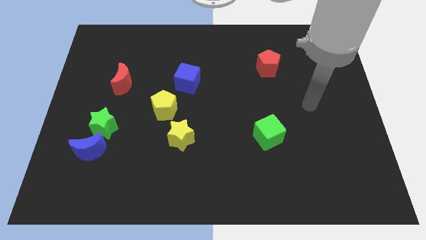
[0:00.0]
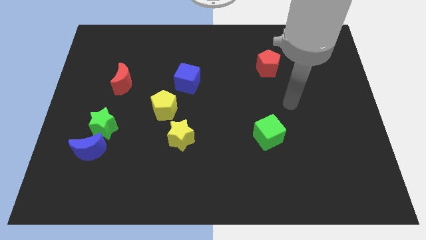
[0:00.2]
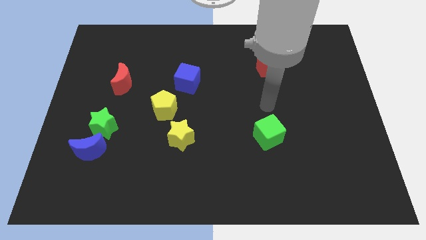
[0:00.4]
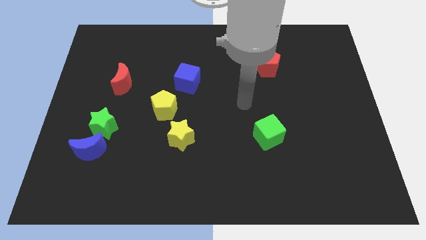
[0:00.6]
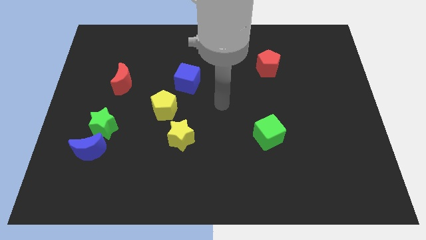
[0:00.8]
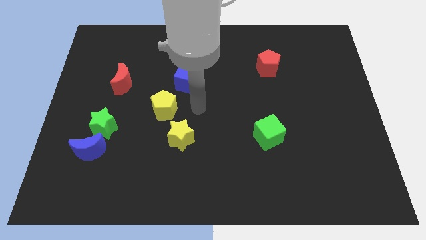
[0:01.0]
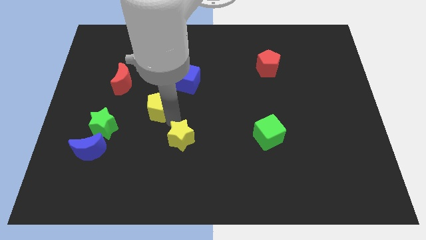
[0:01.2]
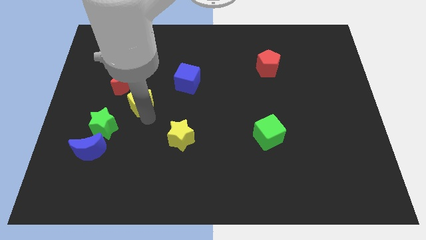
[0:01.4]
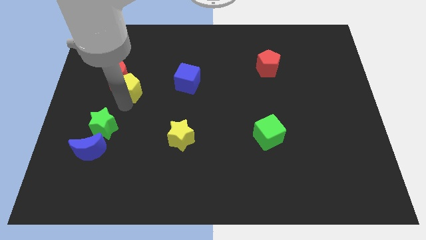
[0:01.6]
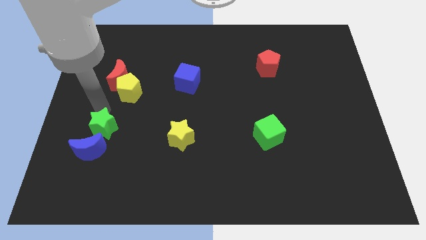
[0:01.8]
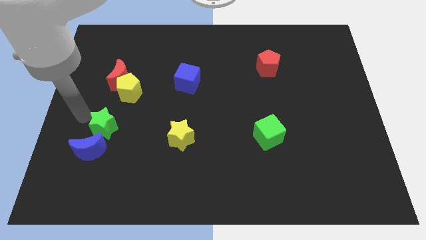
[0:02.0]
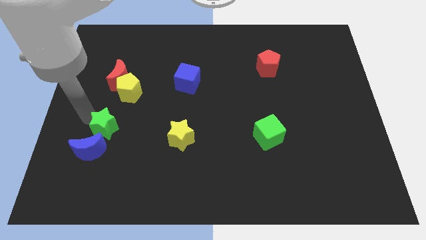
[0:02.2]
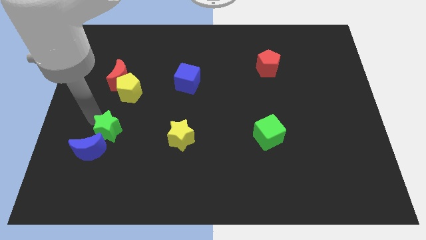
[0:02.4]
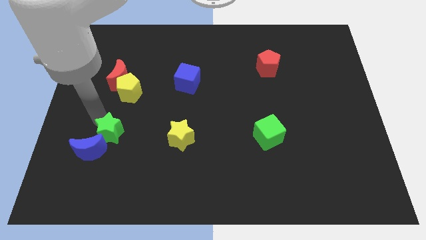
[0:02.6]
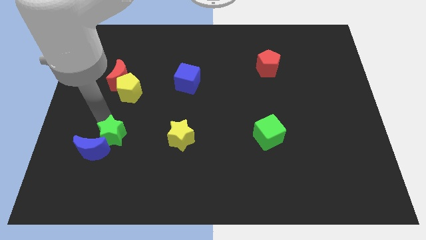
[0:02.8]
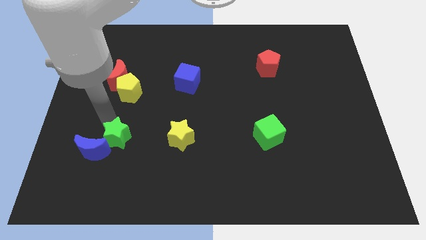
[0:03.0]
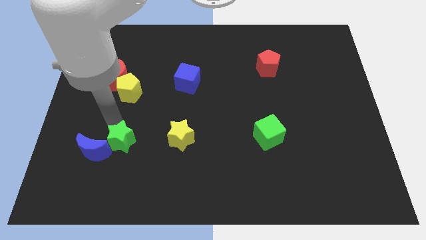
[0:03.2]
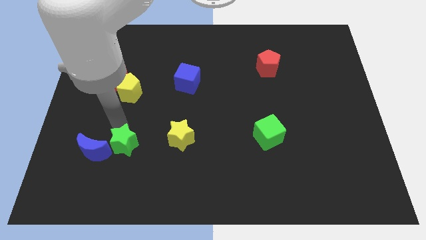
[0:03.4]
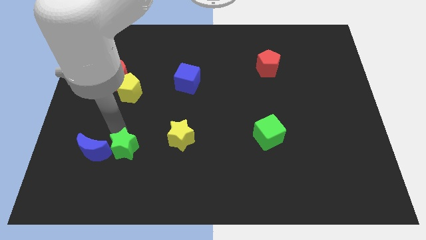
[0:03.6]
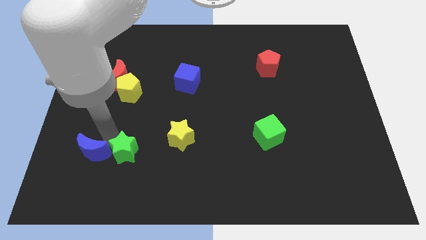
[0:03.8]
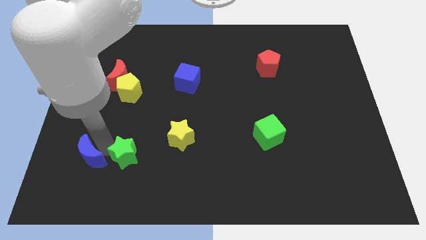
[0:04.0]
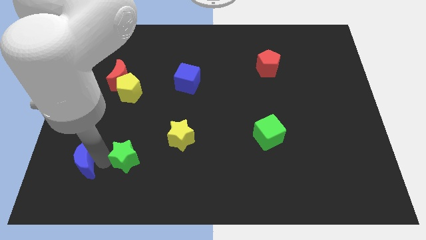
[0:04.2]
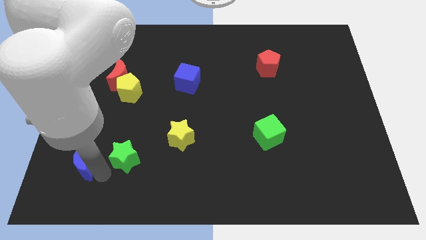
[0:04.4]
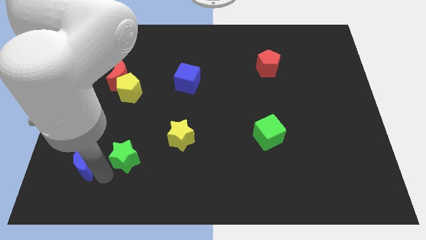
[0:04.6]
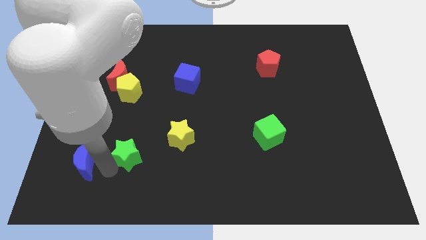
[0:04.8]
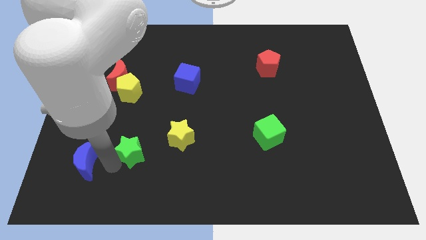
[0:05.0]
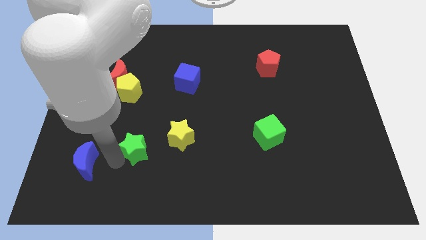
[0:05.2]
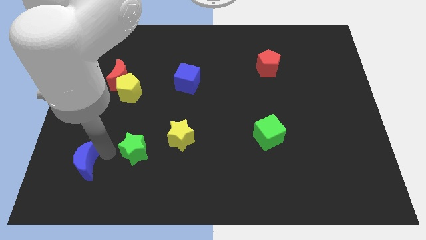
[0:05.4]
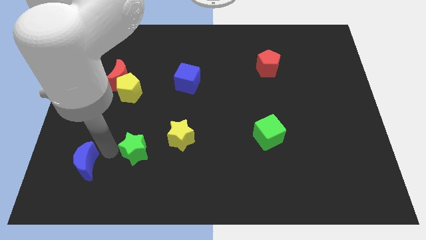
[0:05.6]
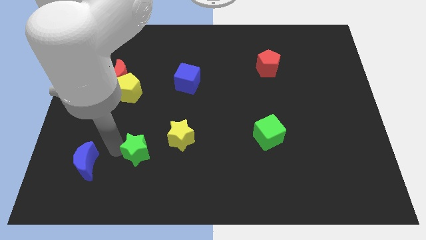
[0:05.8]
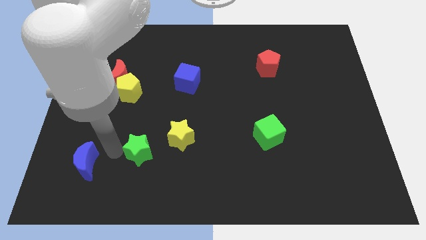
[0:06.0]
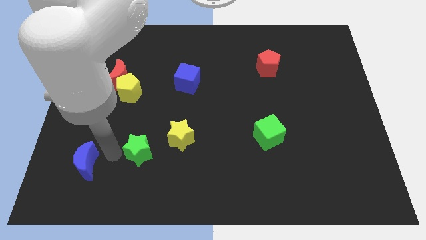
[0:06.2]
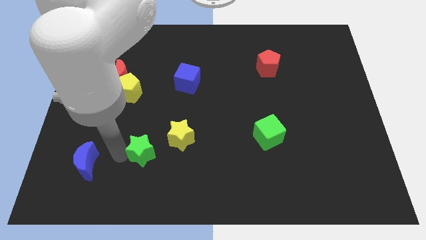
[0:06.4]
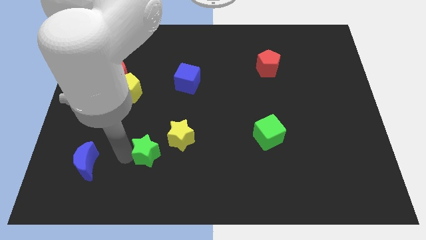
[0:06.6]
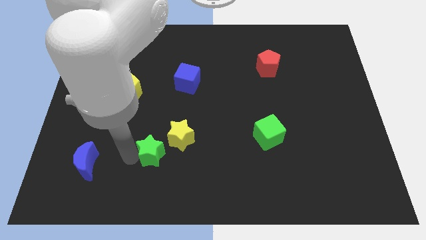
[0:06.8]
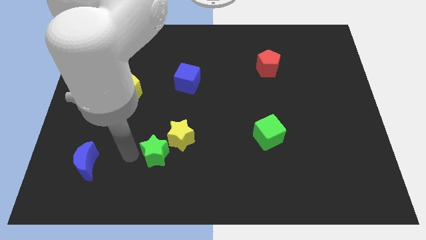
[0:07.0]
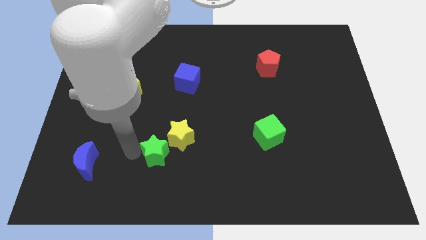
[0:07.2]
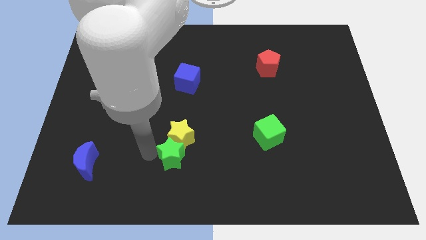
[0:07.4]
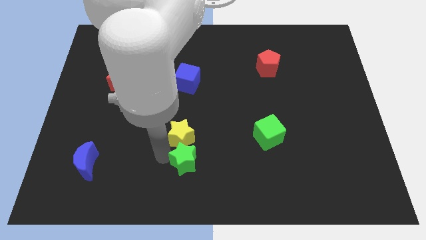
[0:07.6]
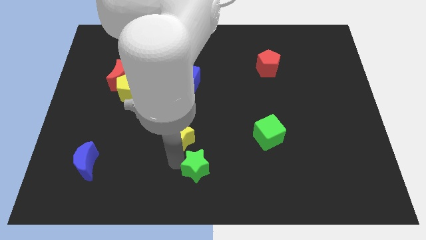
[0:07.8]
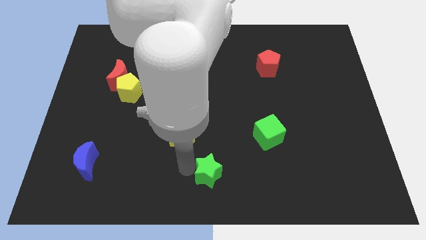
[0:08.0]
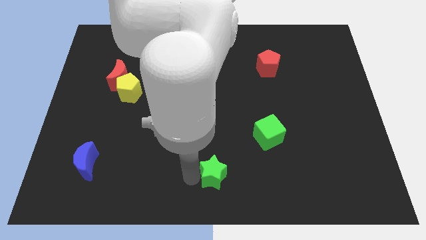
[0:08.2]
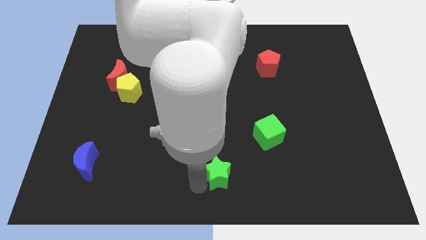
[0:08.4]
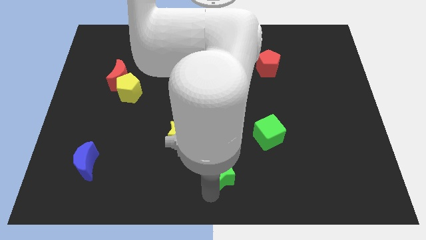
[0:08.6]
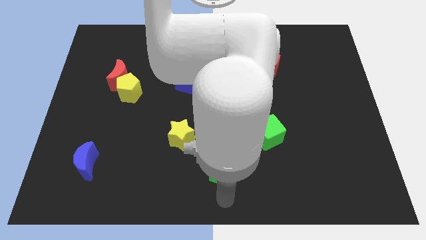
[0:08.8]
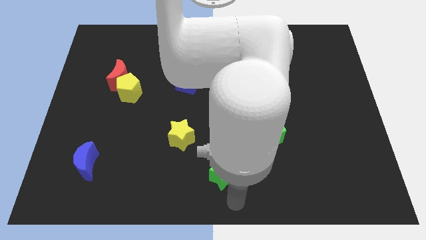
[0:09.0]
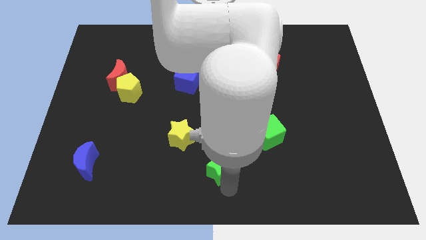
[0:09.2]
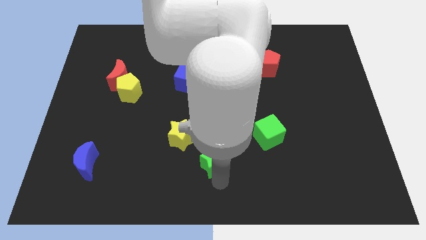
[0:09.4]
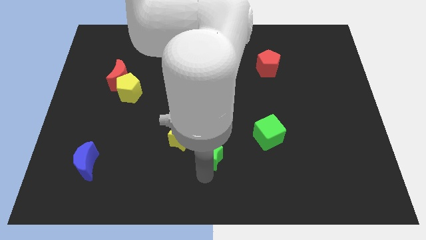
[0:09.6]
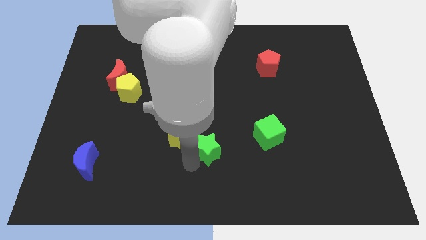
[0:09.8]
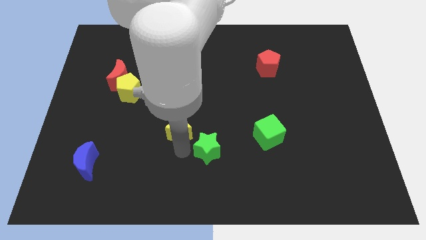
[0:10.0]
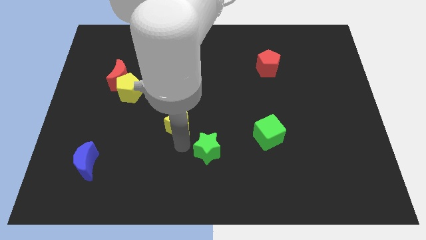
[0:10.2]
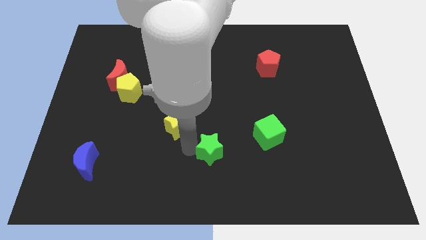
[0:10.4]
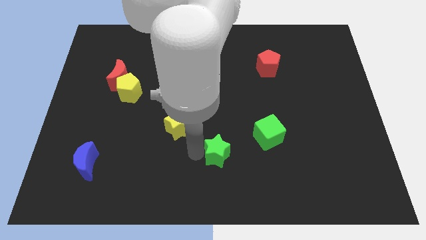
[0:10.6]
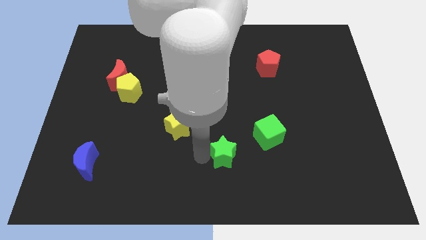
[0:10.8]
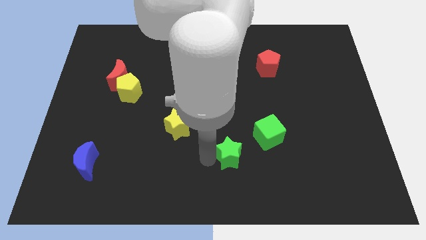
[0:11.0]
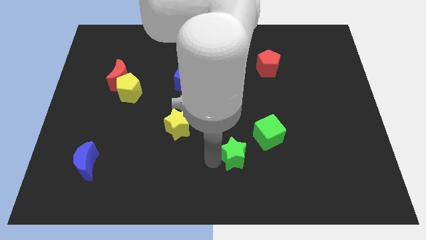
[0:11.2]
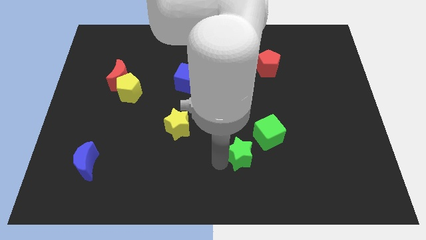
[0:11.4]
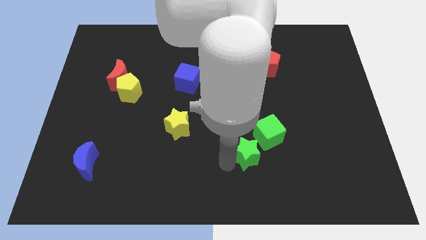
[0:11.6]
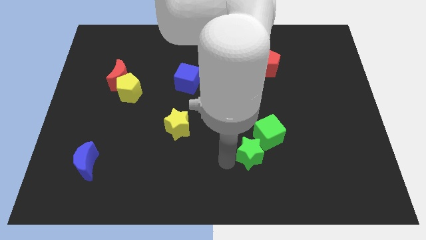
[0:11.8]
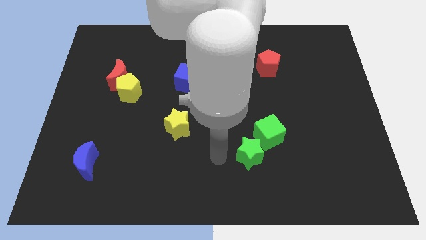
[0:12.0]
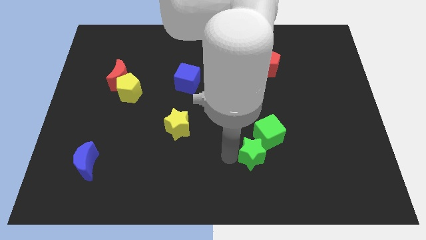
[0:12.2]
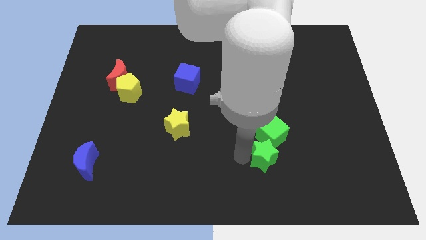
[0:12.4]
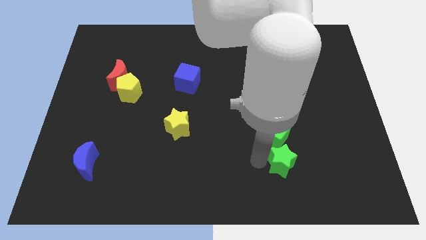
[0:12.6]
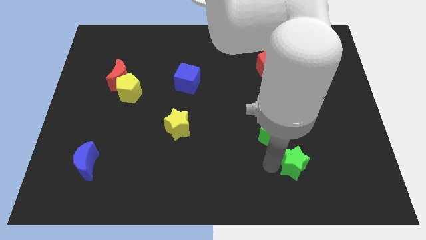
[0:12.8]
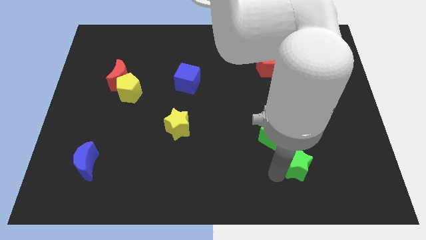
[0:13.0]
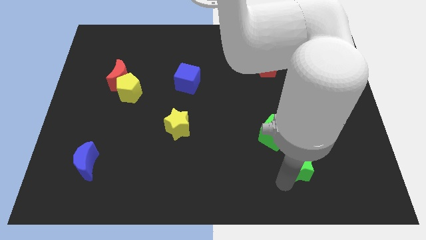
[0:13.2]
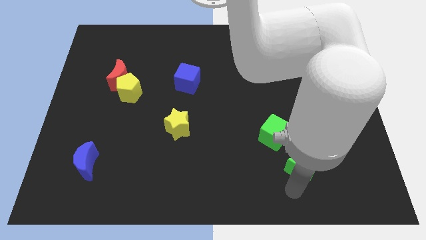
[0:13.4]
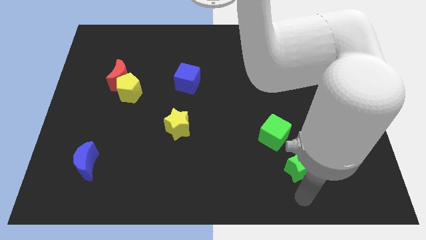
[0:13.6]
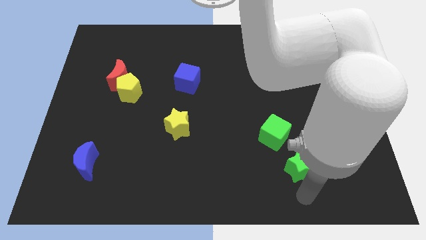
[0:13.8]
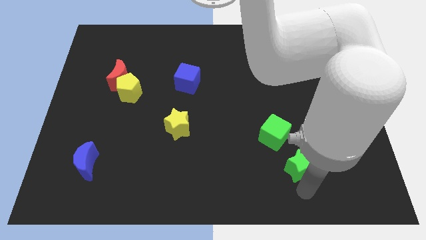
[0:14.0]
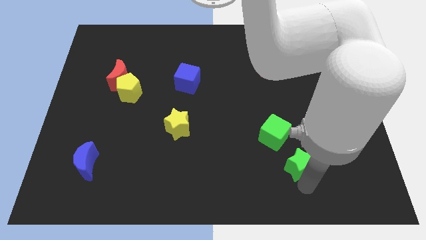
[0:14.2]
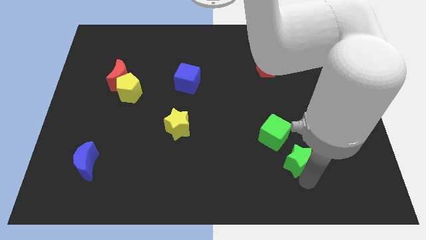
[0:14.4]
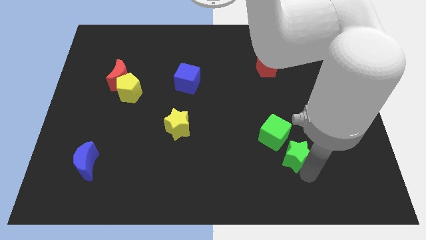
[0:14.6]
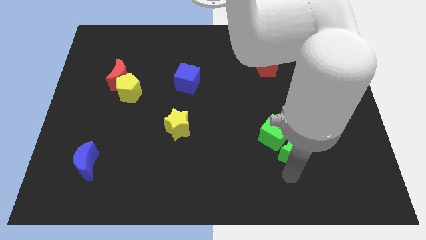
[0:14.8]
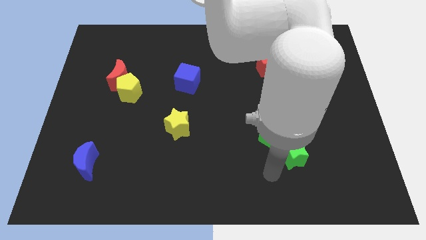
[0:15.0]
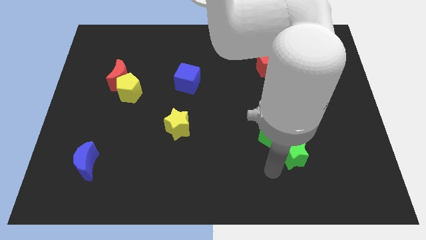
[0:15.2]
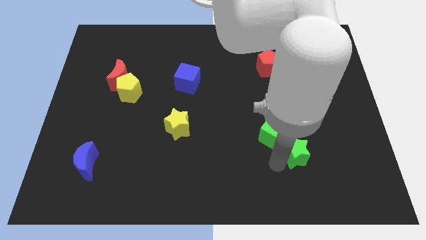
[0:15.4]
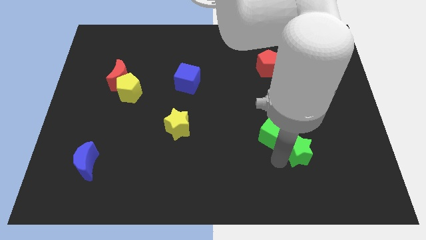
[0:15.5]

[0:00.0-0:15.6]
move the green star just right of the green cube

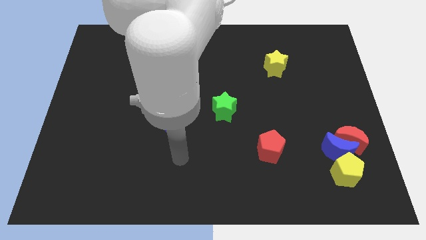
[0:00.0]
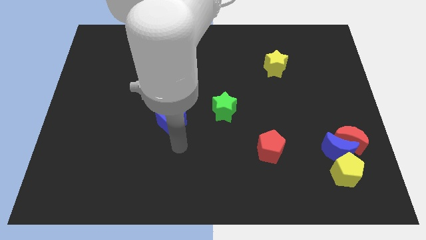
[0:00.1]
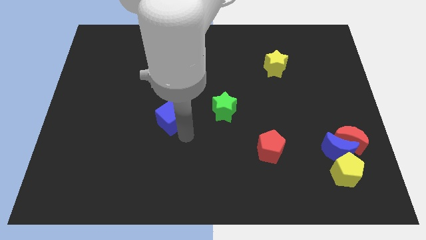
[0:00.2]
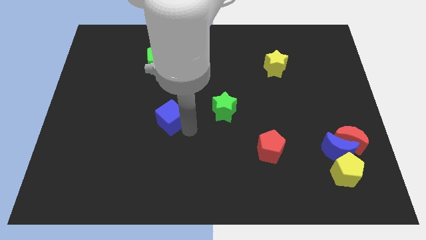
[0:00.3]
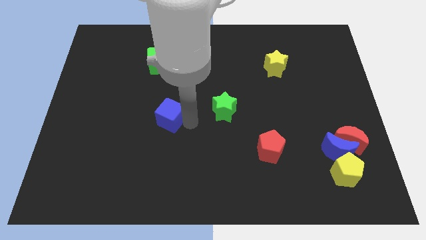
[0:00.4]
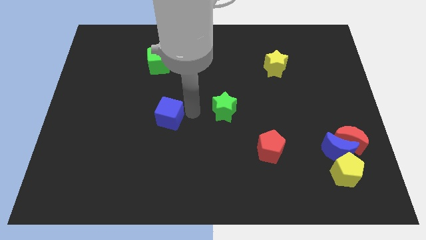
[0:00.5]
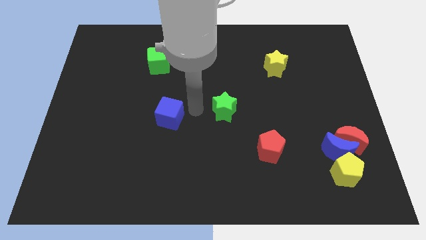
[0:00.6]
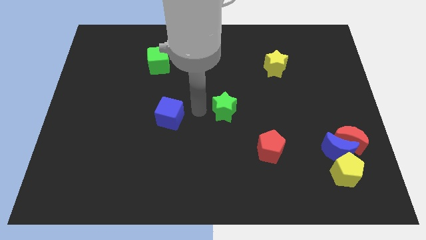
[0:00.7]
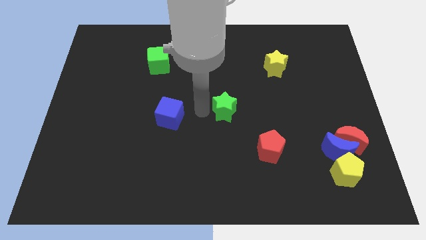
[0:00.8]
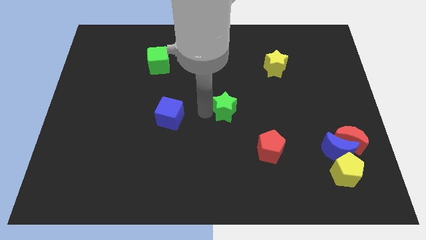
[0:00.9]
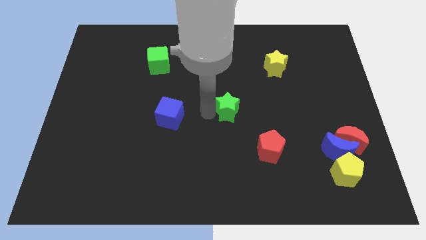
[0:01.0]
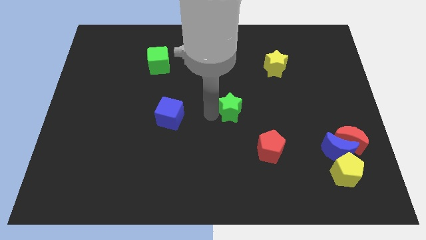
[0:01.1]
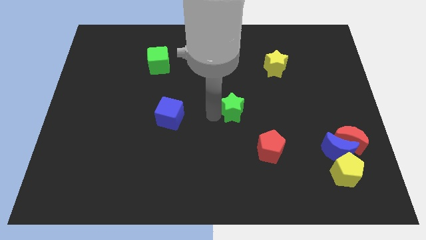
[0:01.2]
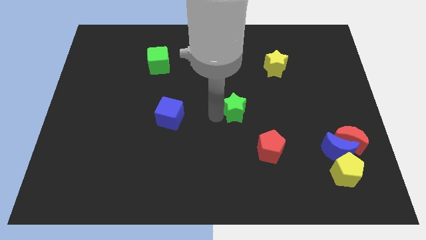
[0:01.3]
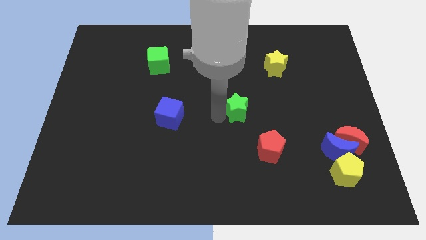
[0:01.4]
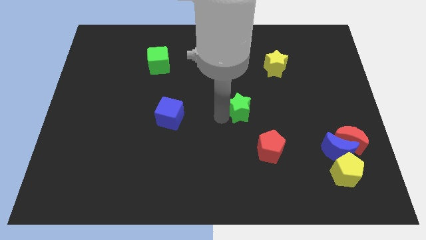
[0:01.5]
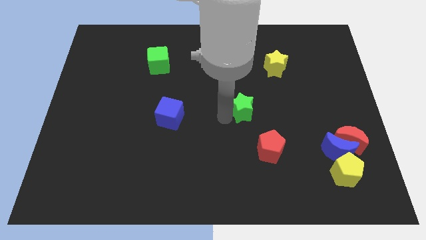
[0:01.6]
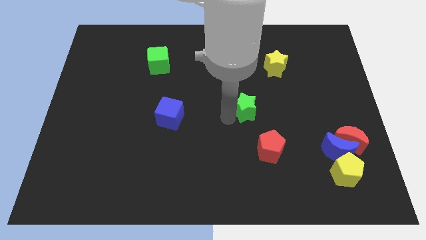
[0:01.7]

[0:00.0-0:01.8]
slide the green star to the top side of the red pentagon
